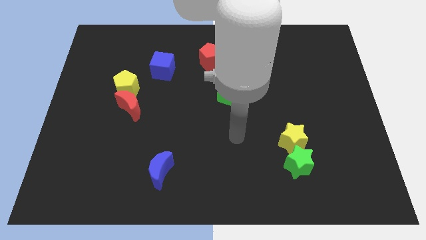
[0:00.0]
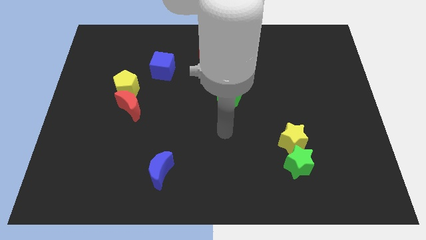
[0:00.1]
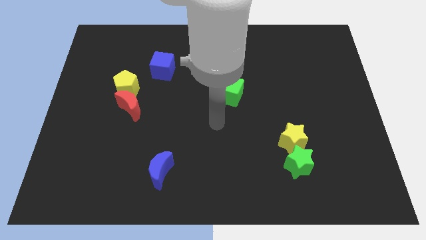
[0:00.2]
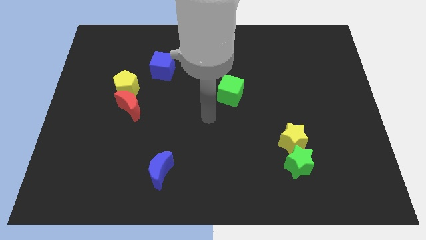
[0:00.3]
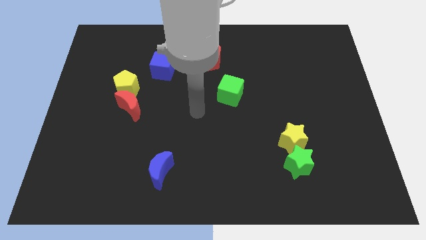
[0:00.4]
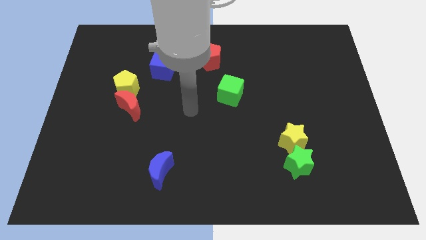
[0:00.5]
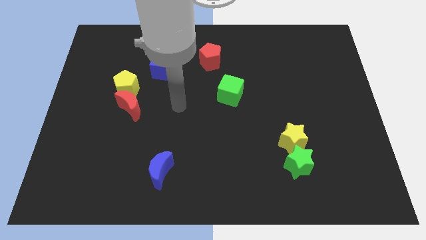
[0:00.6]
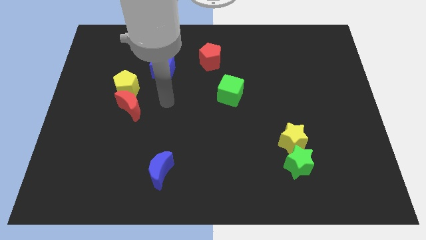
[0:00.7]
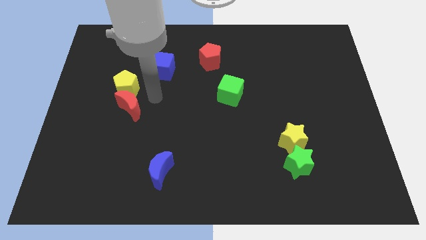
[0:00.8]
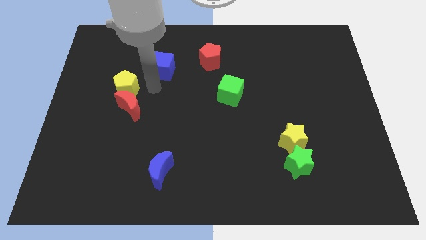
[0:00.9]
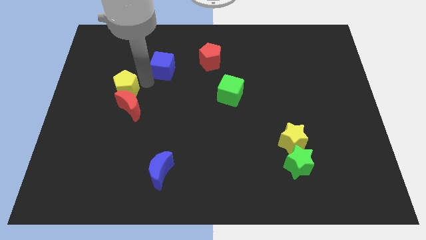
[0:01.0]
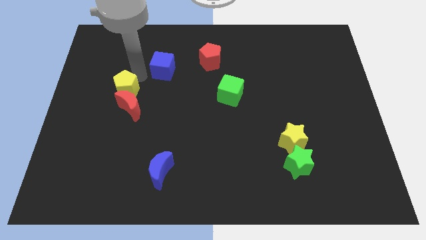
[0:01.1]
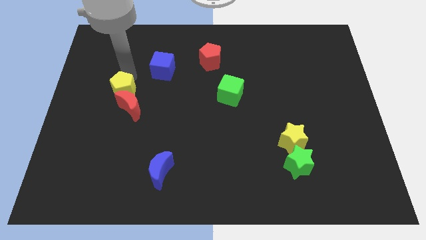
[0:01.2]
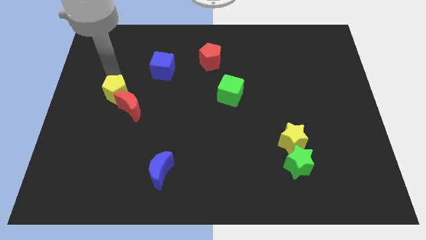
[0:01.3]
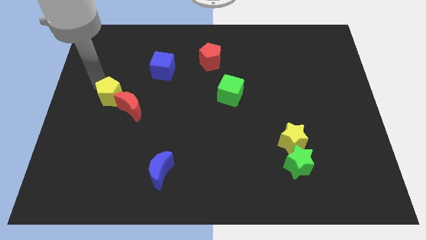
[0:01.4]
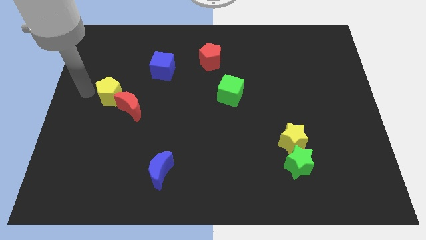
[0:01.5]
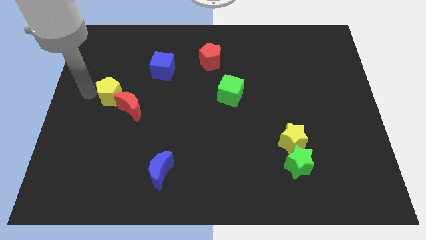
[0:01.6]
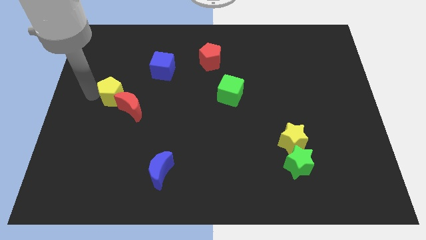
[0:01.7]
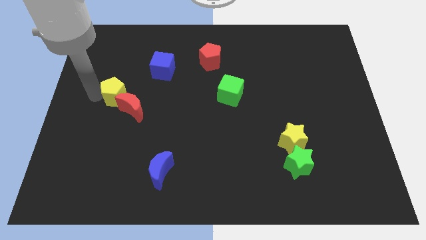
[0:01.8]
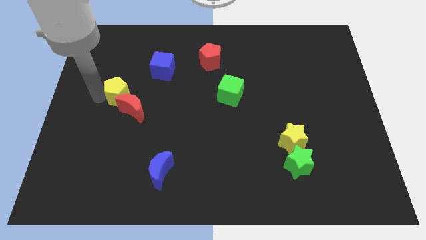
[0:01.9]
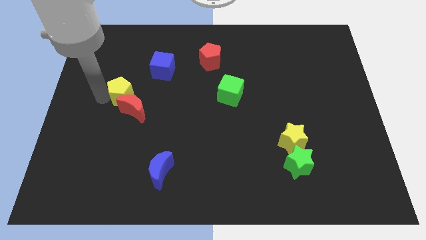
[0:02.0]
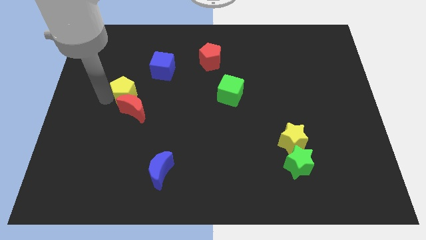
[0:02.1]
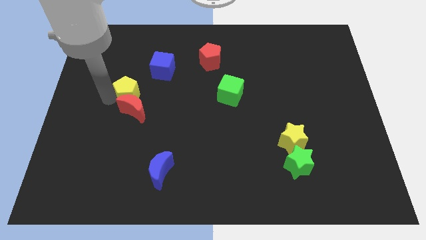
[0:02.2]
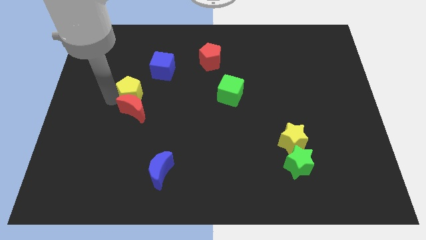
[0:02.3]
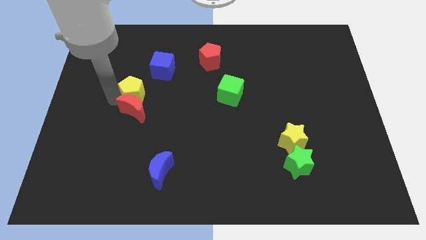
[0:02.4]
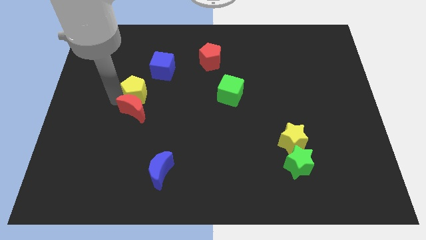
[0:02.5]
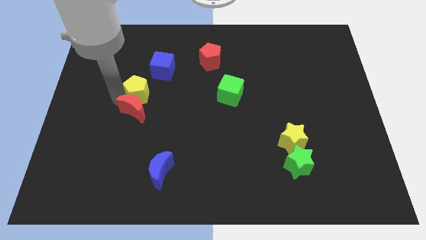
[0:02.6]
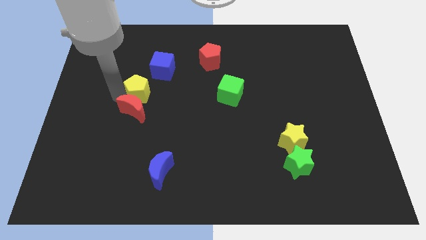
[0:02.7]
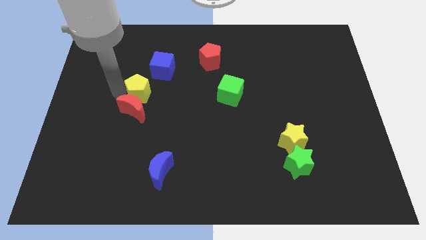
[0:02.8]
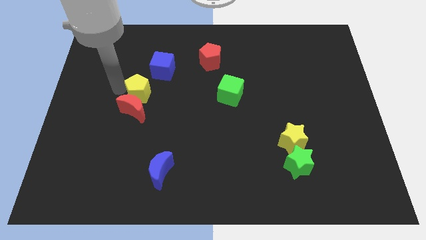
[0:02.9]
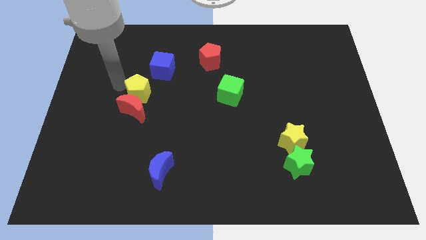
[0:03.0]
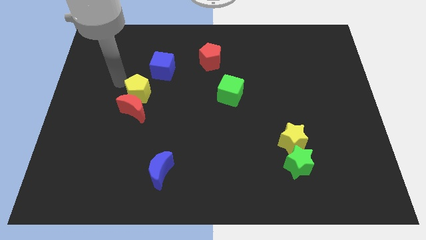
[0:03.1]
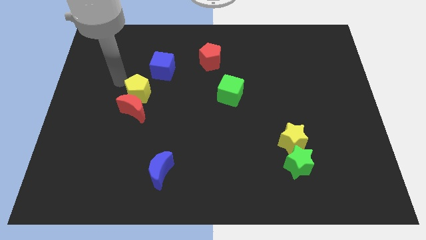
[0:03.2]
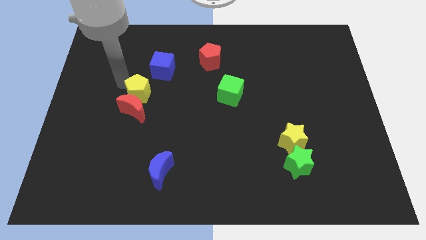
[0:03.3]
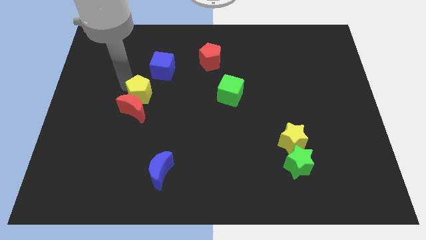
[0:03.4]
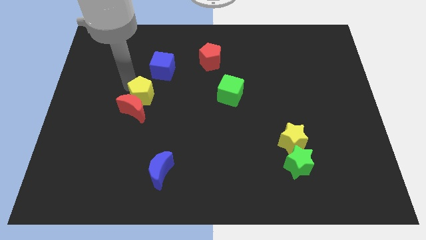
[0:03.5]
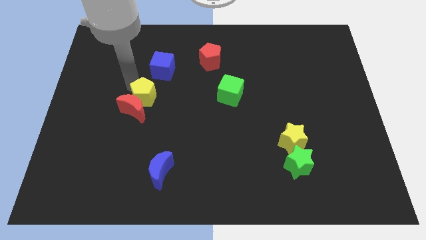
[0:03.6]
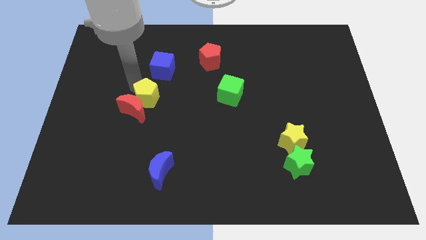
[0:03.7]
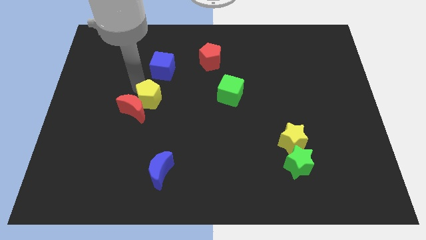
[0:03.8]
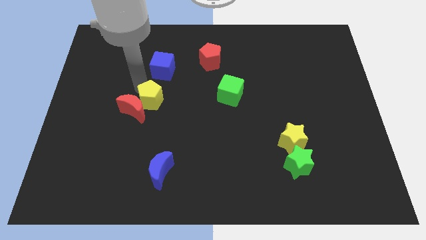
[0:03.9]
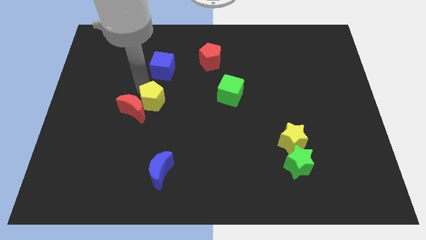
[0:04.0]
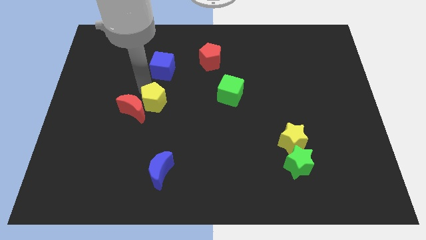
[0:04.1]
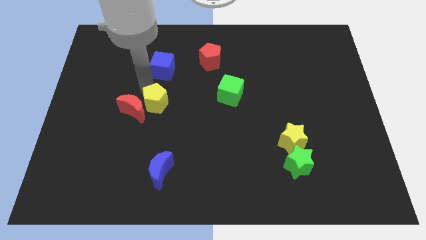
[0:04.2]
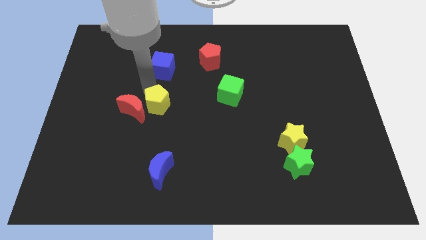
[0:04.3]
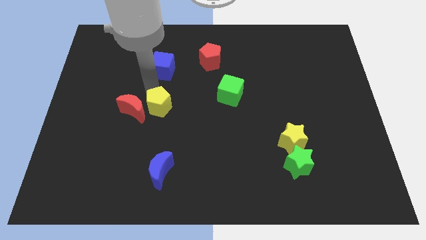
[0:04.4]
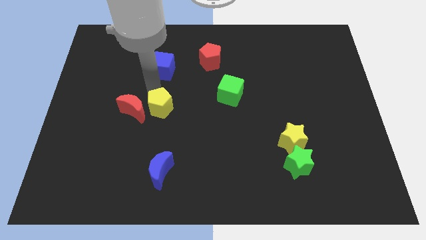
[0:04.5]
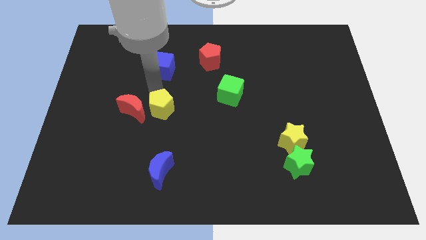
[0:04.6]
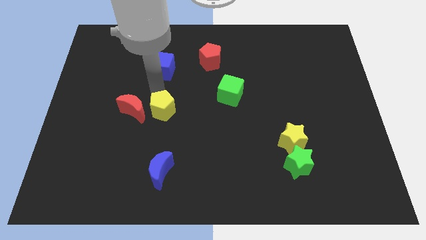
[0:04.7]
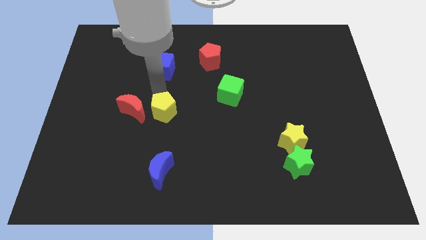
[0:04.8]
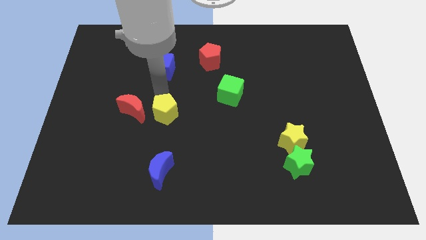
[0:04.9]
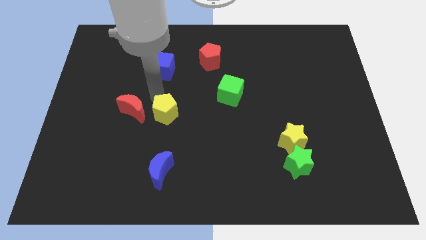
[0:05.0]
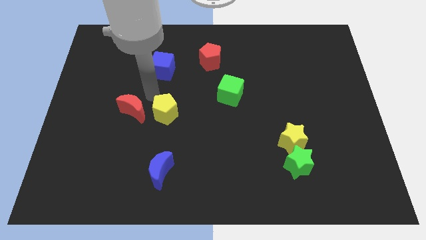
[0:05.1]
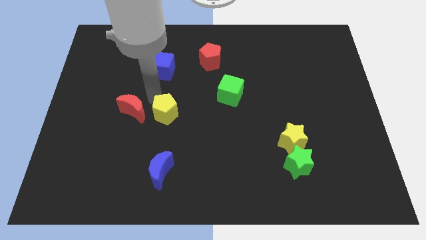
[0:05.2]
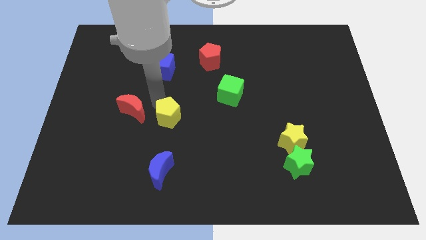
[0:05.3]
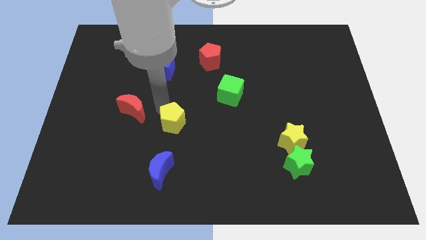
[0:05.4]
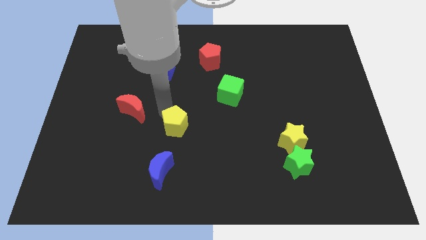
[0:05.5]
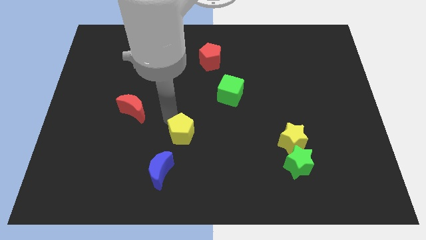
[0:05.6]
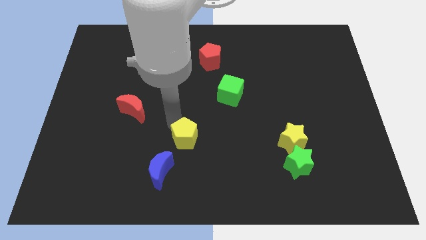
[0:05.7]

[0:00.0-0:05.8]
slide the yellow pentagon downwards and then right

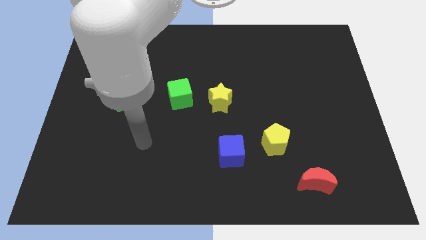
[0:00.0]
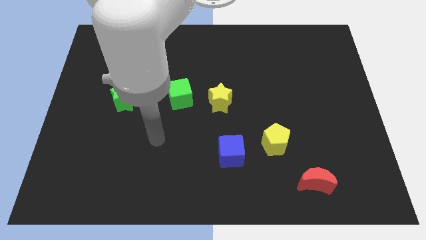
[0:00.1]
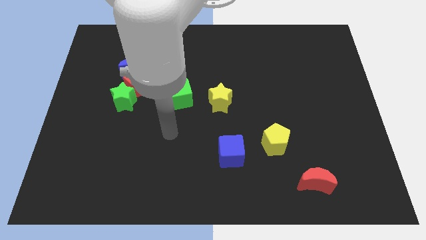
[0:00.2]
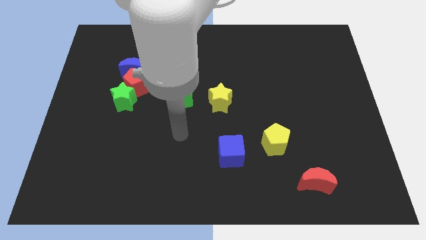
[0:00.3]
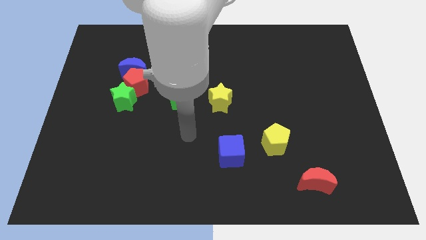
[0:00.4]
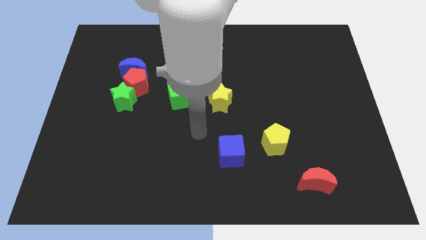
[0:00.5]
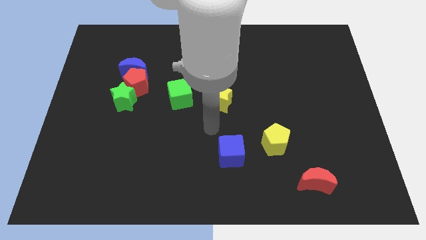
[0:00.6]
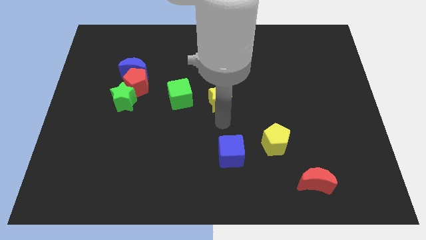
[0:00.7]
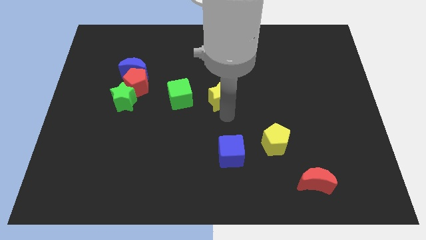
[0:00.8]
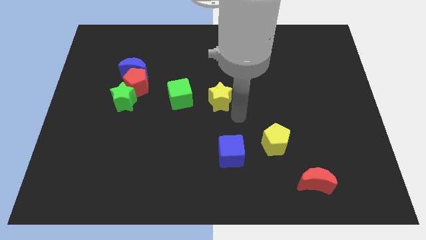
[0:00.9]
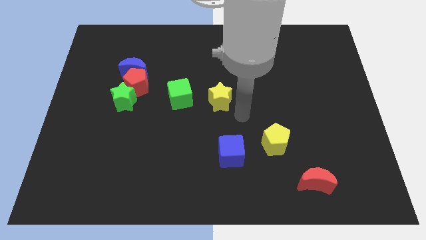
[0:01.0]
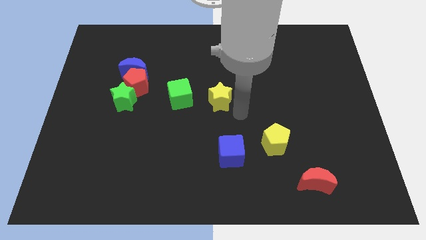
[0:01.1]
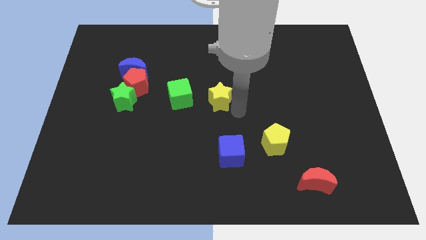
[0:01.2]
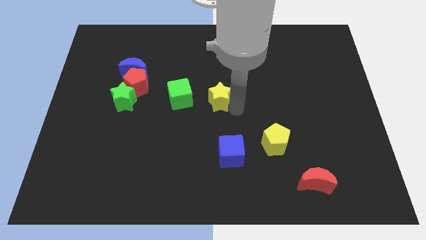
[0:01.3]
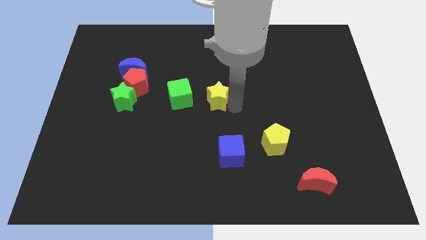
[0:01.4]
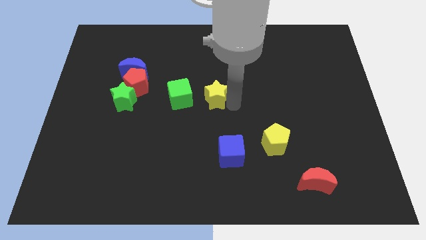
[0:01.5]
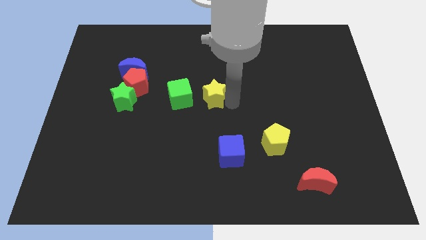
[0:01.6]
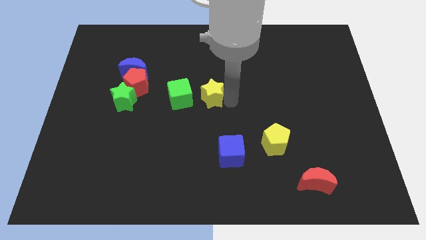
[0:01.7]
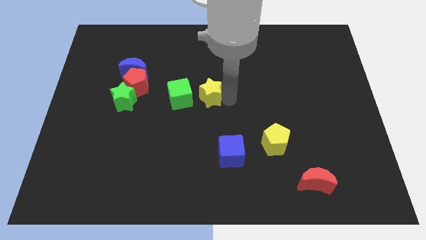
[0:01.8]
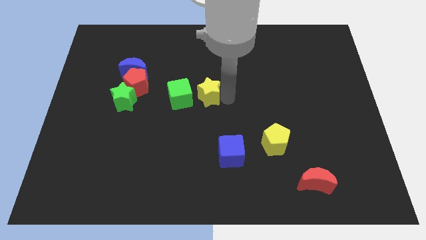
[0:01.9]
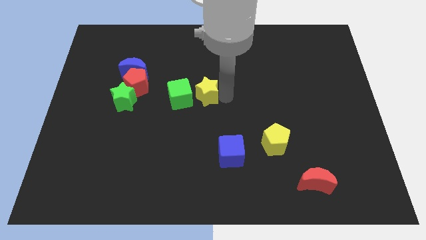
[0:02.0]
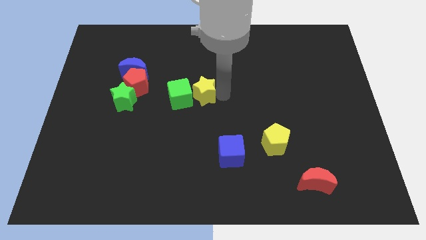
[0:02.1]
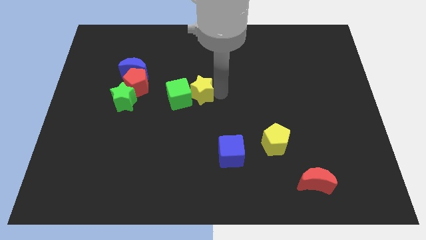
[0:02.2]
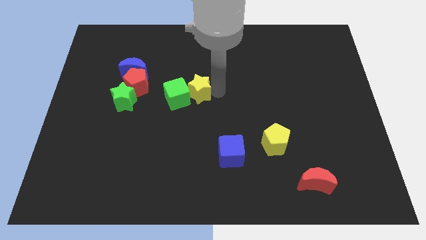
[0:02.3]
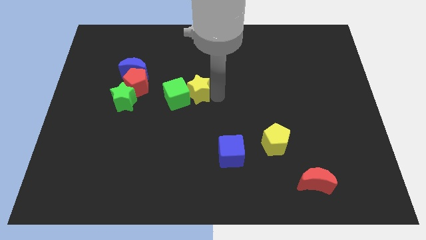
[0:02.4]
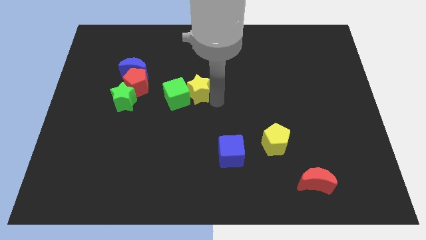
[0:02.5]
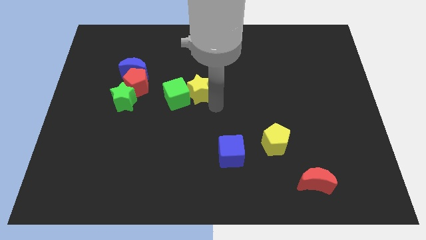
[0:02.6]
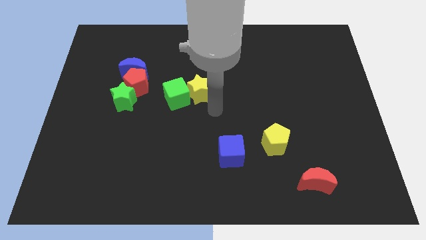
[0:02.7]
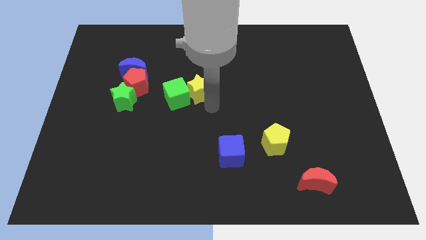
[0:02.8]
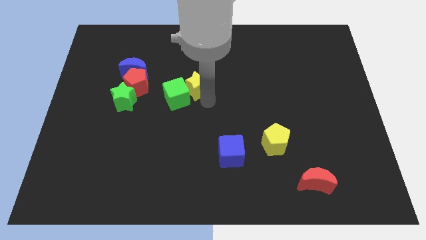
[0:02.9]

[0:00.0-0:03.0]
push the yellow star up and to the left diagonally a bit
